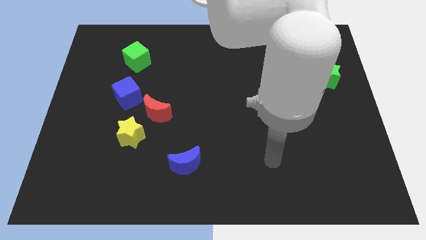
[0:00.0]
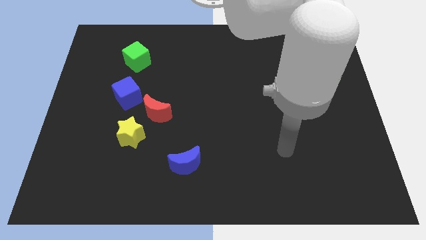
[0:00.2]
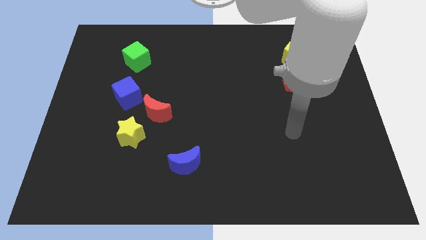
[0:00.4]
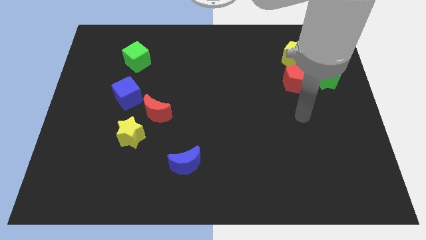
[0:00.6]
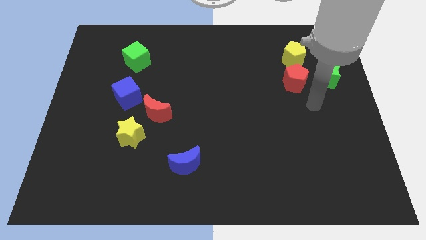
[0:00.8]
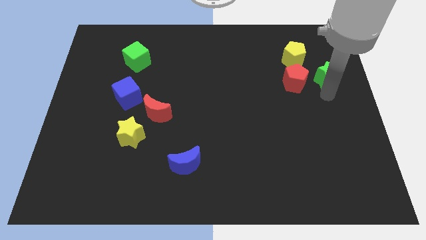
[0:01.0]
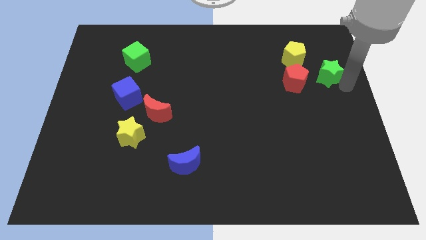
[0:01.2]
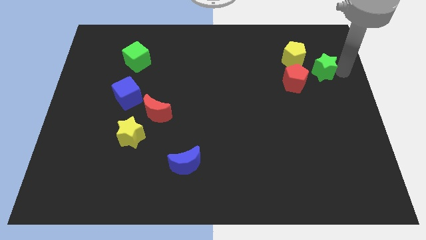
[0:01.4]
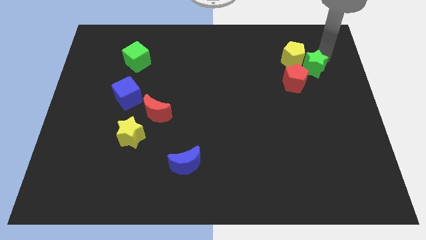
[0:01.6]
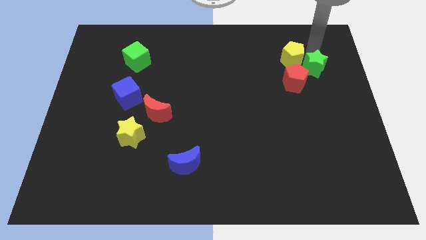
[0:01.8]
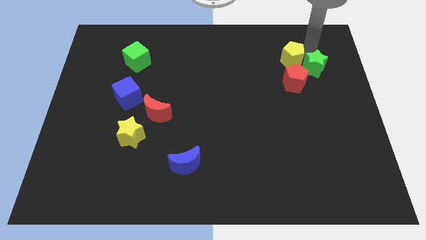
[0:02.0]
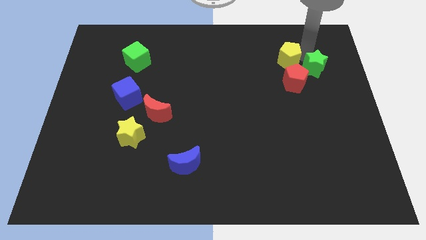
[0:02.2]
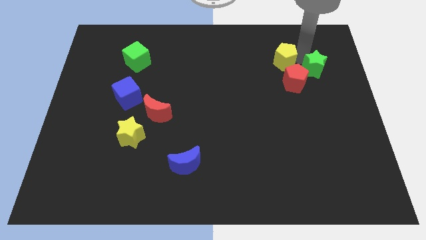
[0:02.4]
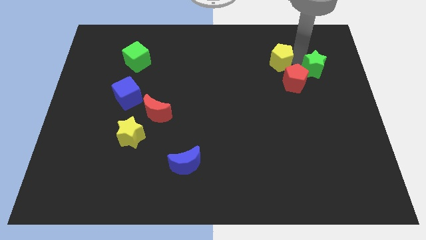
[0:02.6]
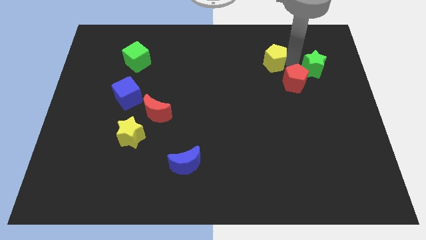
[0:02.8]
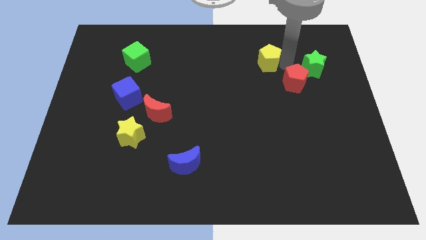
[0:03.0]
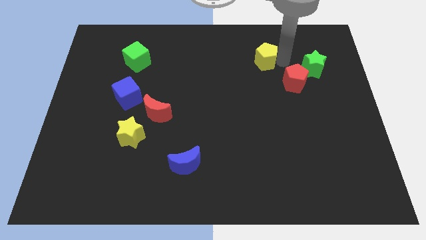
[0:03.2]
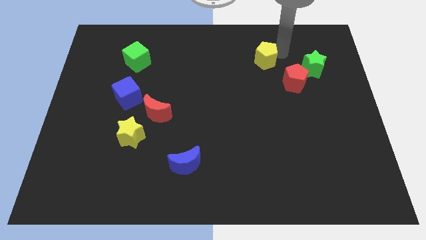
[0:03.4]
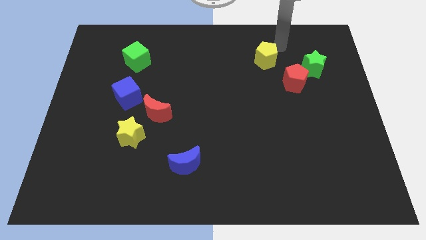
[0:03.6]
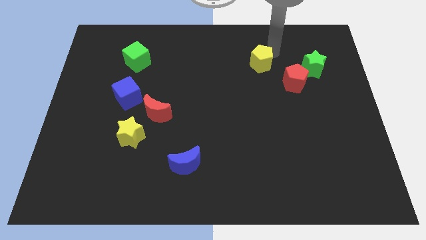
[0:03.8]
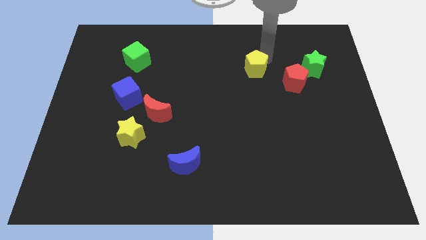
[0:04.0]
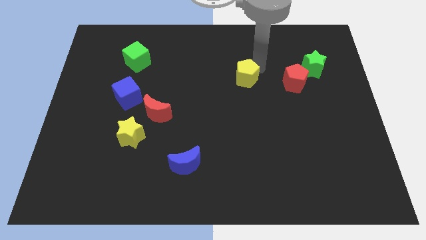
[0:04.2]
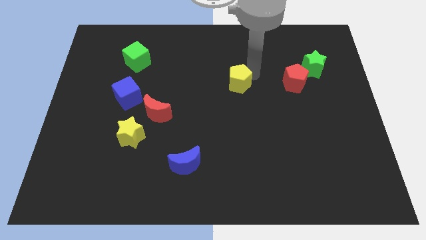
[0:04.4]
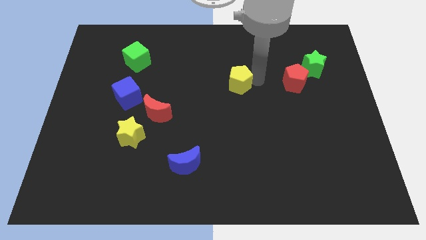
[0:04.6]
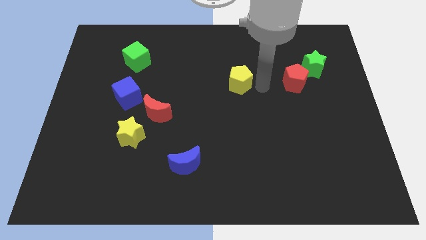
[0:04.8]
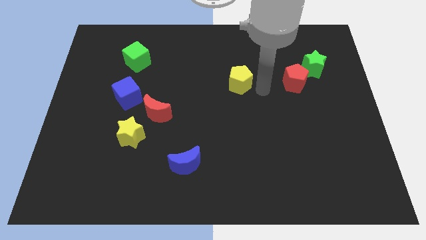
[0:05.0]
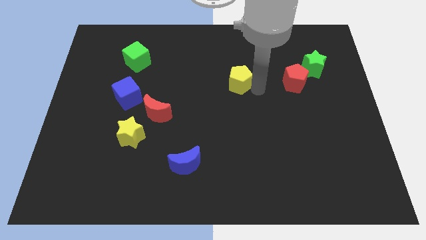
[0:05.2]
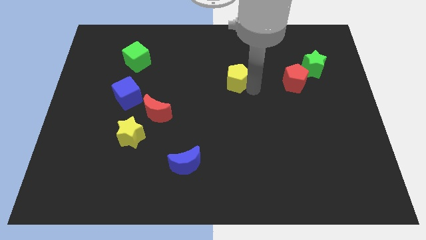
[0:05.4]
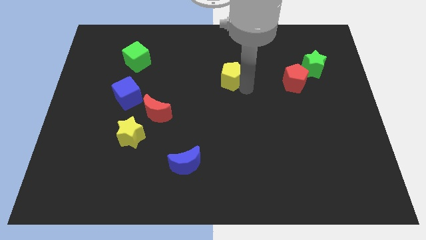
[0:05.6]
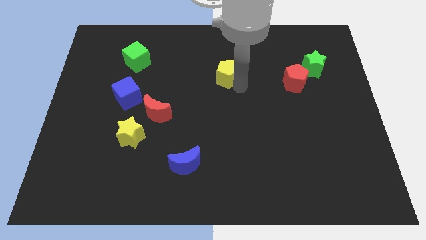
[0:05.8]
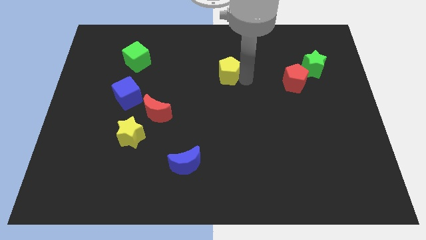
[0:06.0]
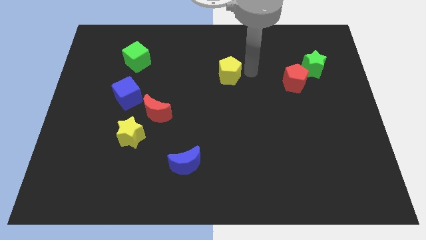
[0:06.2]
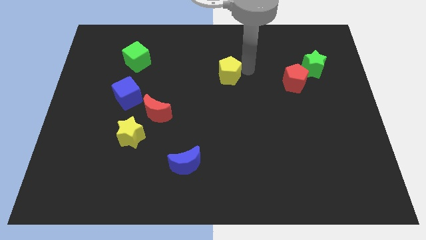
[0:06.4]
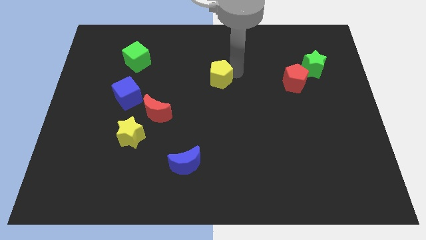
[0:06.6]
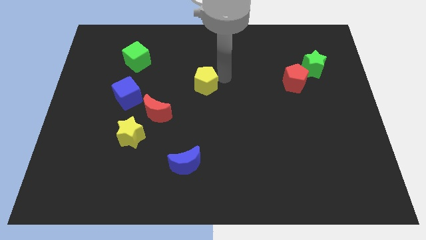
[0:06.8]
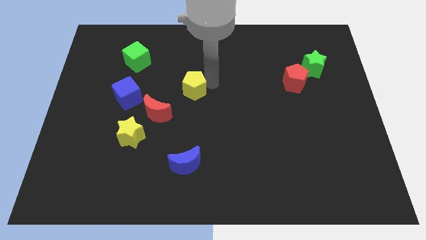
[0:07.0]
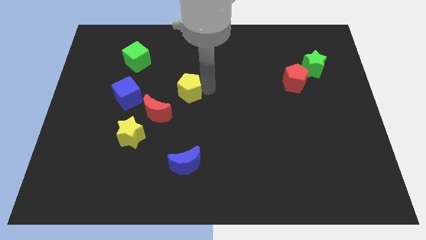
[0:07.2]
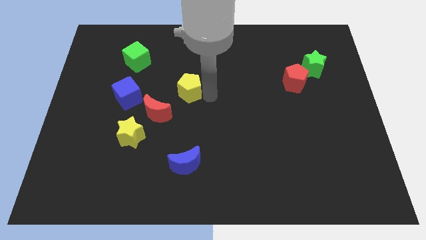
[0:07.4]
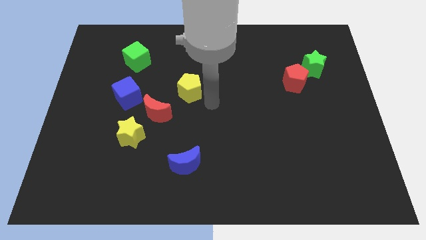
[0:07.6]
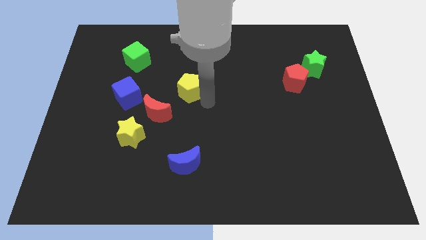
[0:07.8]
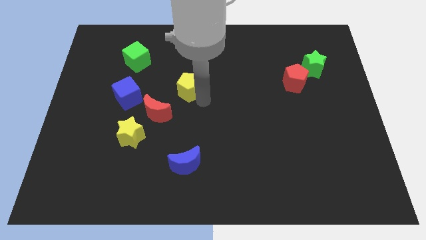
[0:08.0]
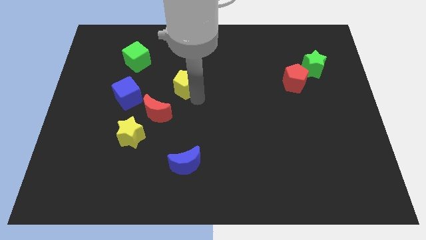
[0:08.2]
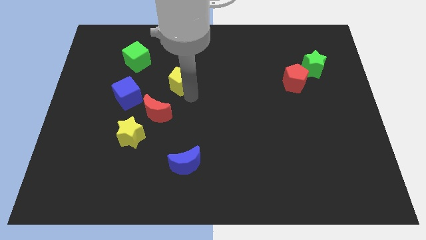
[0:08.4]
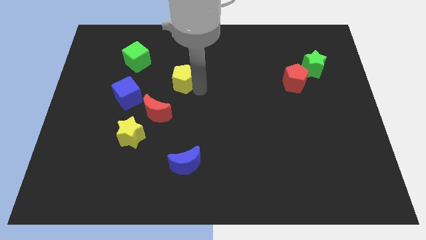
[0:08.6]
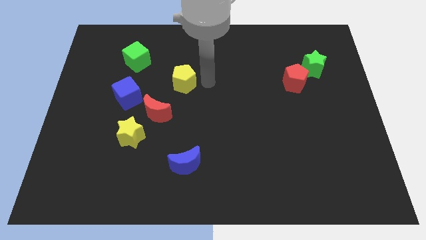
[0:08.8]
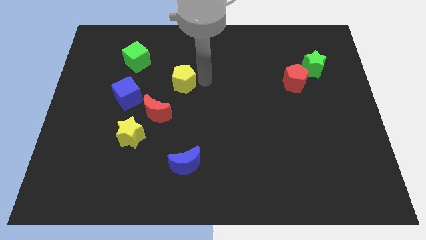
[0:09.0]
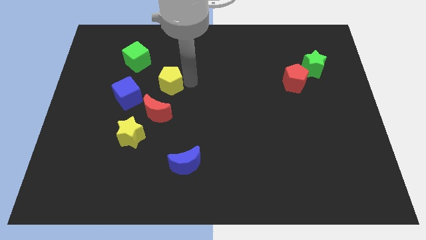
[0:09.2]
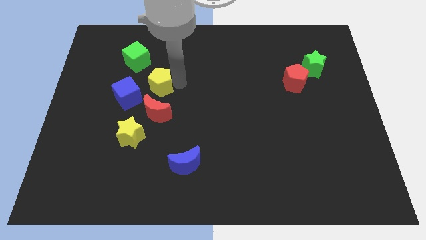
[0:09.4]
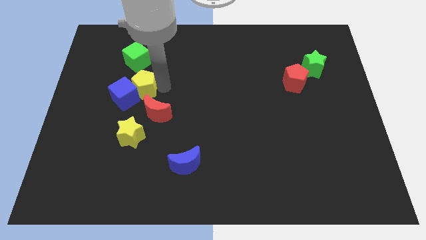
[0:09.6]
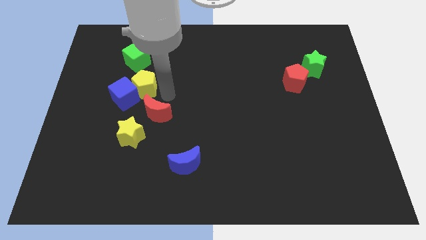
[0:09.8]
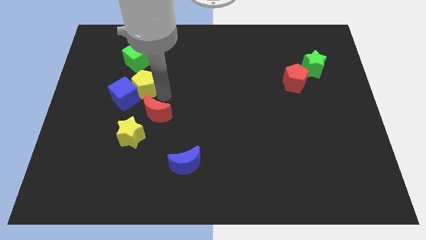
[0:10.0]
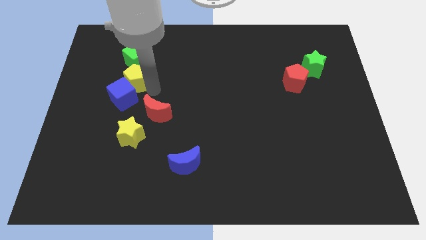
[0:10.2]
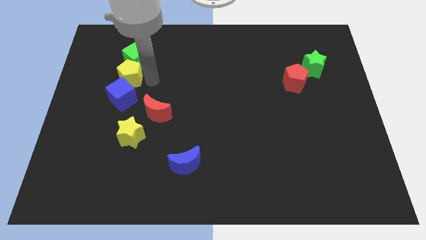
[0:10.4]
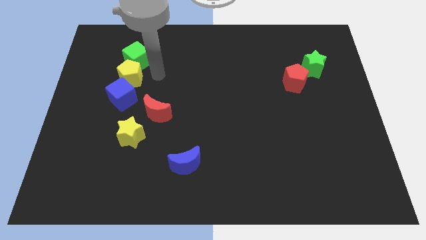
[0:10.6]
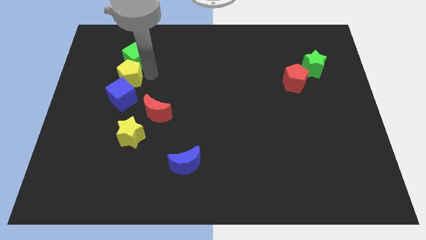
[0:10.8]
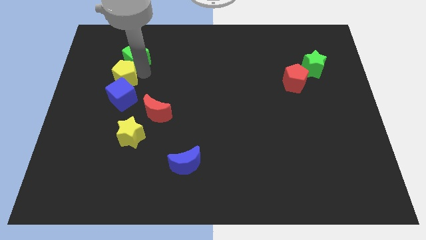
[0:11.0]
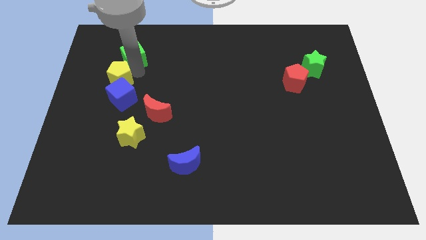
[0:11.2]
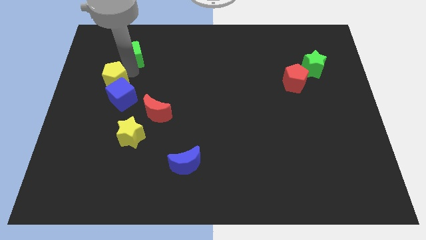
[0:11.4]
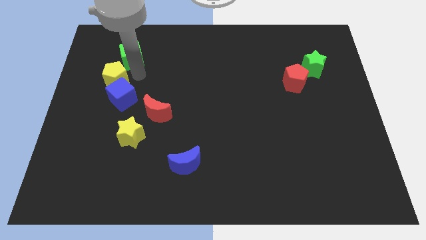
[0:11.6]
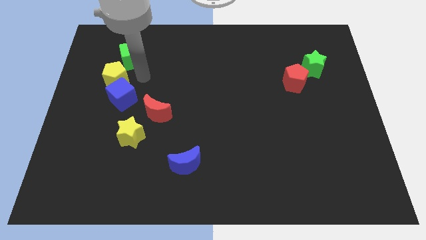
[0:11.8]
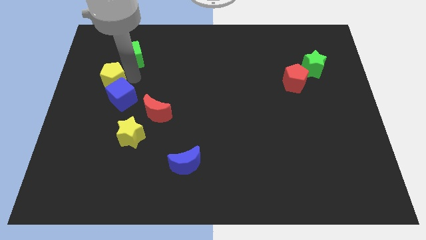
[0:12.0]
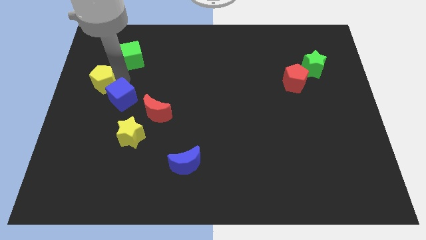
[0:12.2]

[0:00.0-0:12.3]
put the yellow pentagon to the left side of the board

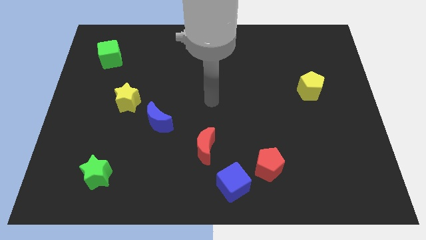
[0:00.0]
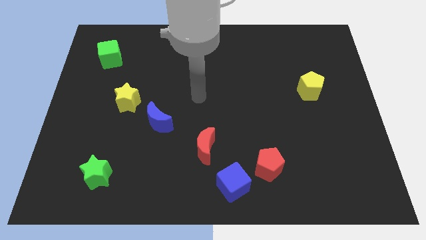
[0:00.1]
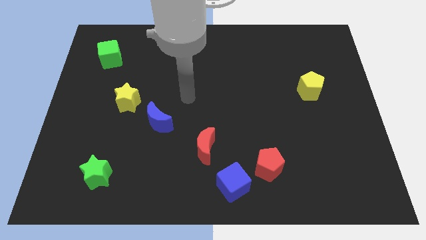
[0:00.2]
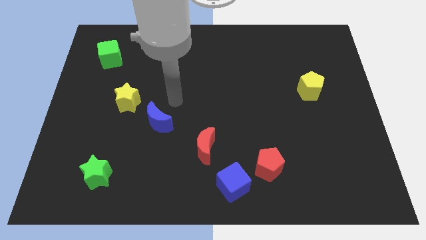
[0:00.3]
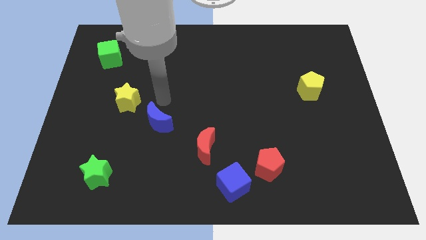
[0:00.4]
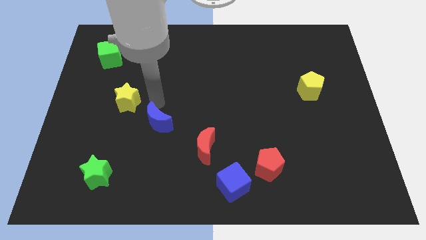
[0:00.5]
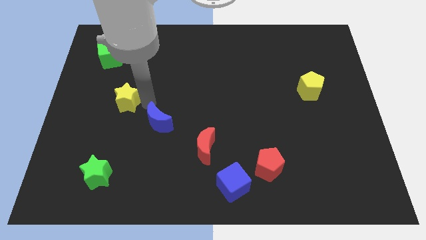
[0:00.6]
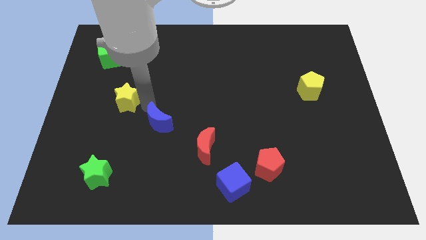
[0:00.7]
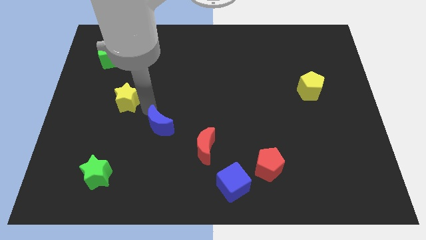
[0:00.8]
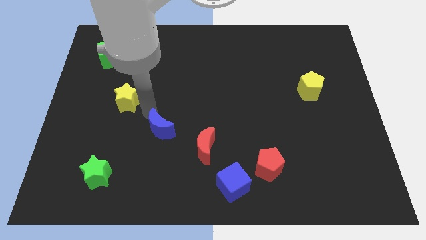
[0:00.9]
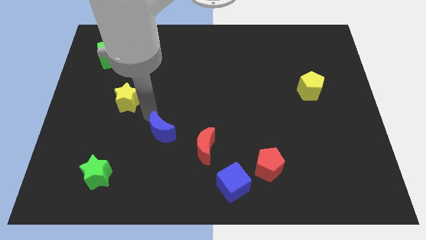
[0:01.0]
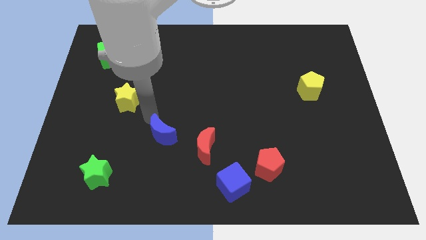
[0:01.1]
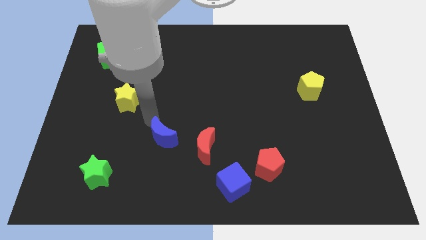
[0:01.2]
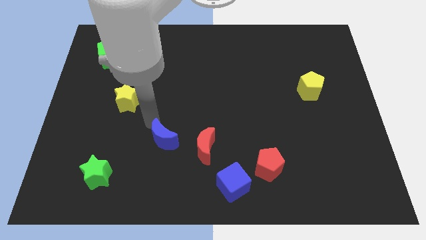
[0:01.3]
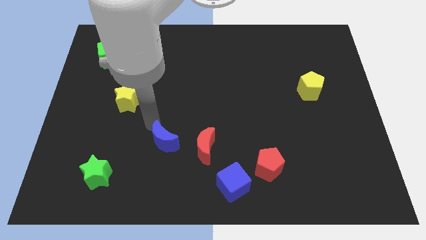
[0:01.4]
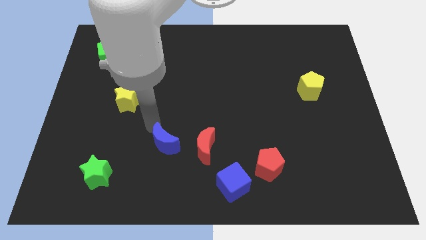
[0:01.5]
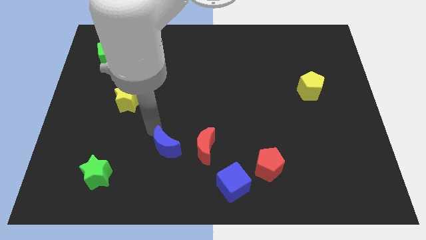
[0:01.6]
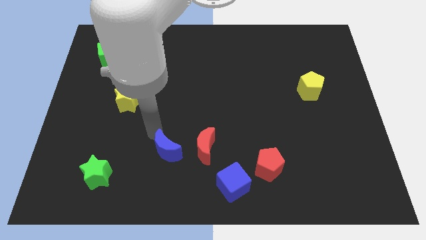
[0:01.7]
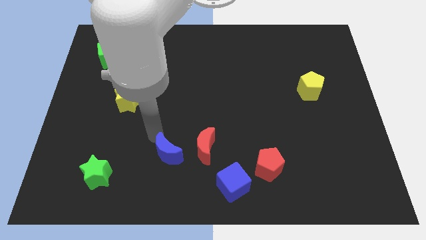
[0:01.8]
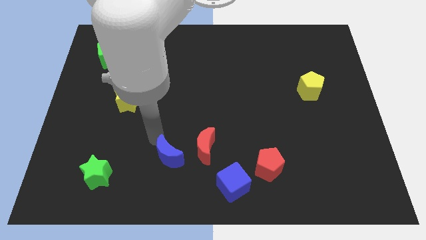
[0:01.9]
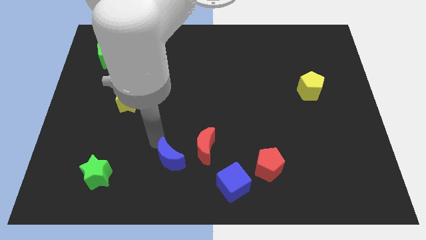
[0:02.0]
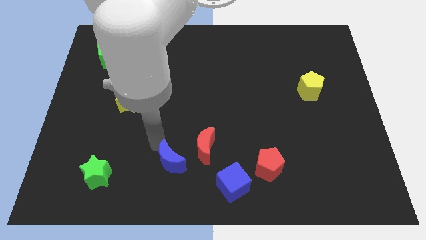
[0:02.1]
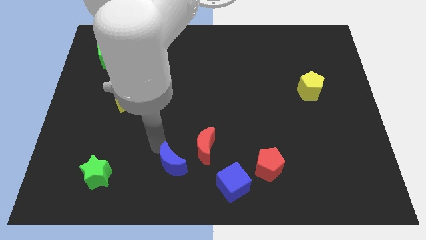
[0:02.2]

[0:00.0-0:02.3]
push the blue moon to the bottom
